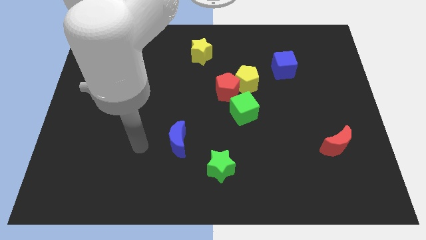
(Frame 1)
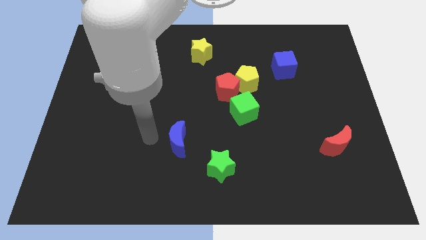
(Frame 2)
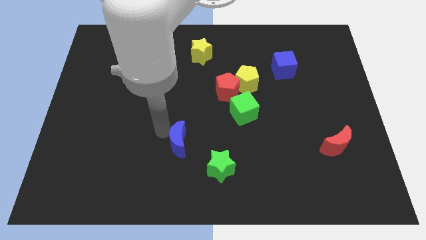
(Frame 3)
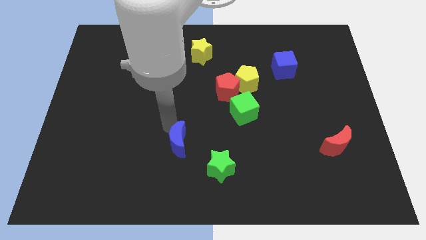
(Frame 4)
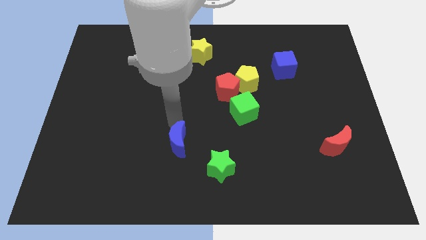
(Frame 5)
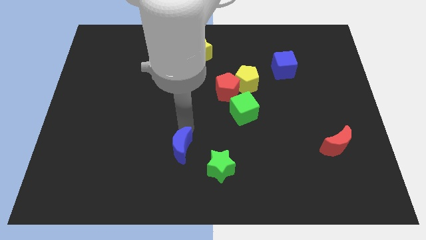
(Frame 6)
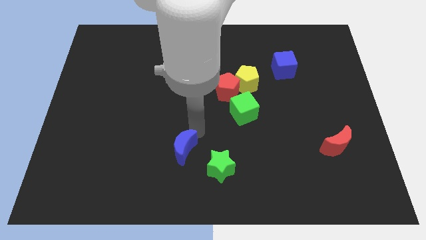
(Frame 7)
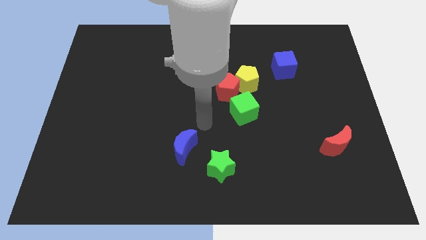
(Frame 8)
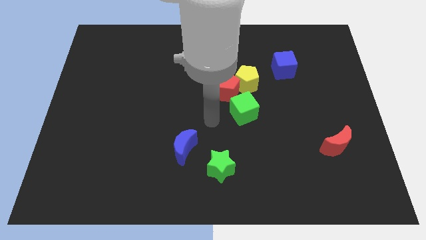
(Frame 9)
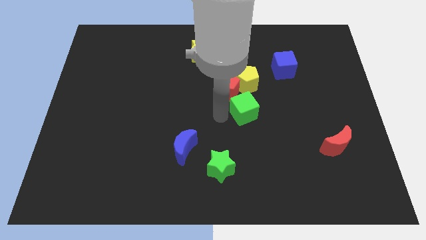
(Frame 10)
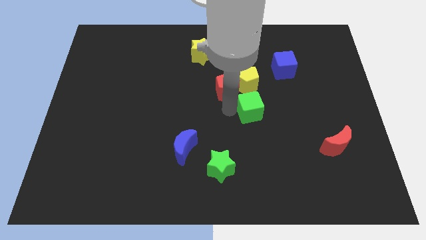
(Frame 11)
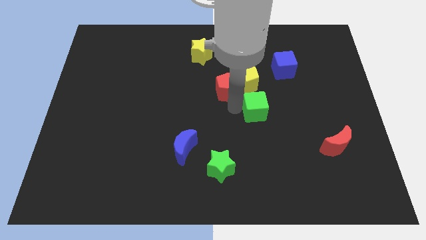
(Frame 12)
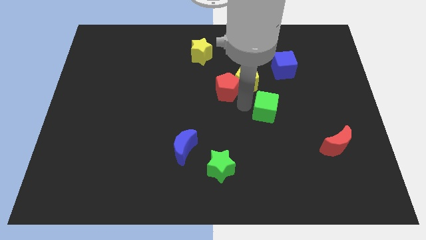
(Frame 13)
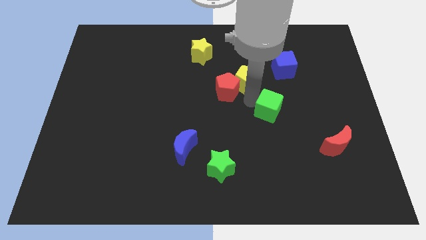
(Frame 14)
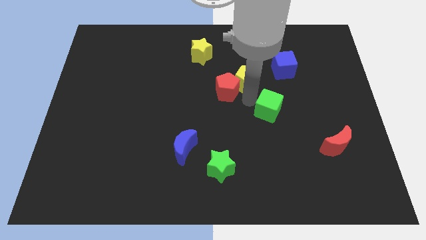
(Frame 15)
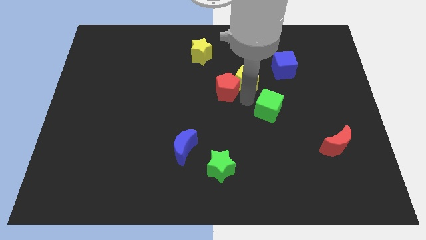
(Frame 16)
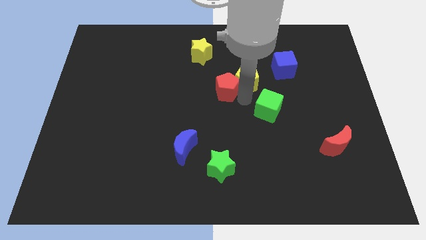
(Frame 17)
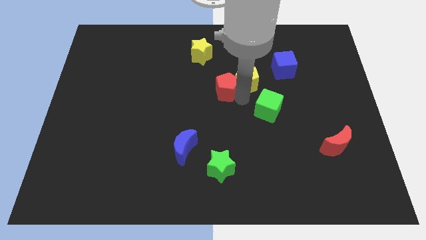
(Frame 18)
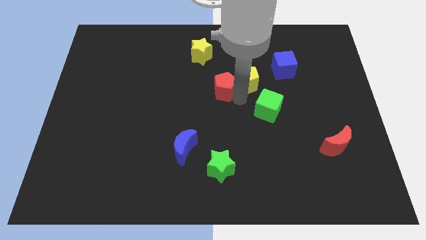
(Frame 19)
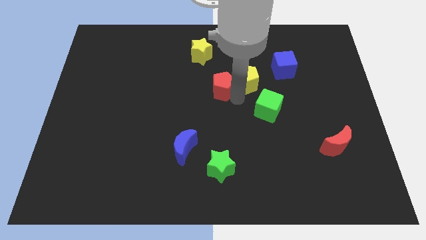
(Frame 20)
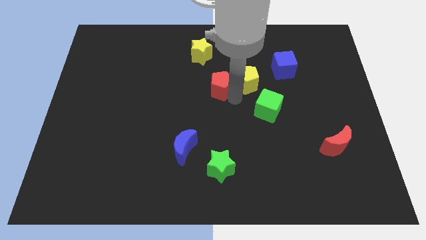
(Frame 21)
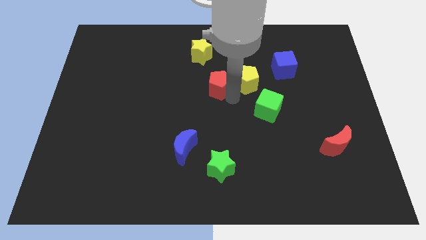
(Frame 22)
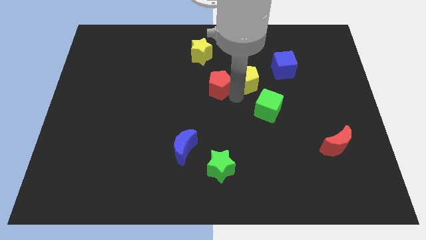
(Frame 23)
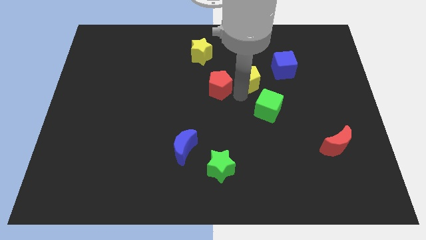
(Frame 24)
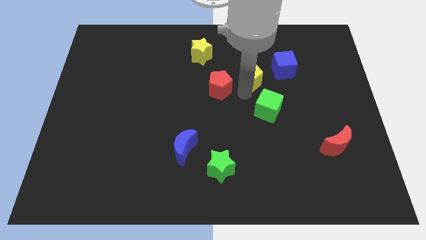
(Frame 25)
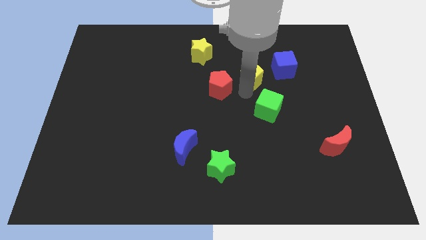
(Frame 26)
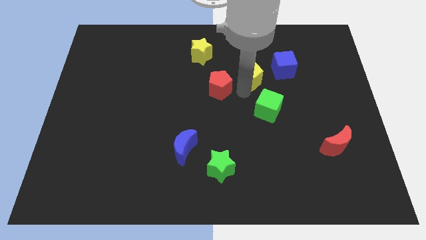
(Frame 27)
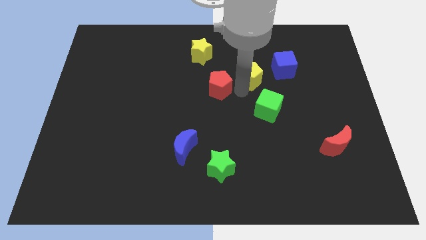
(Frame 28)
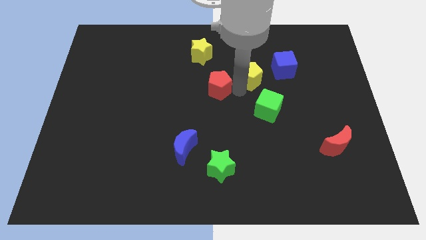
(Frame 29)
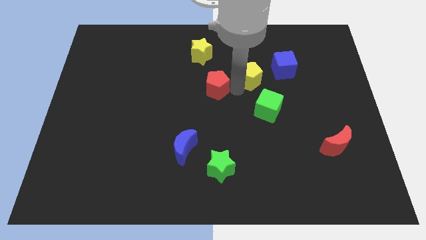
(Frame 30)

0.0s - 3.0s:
separate the red pentagon from the yellow pentagon and green cube

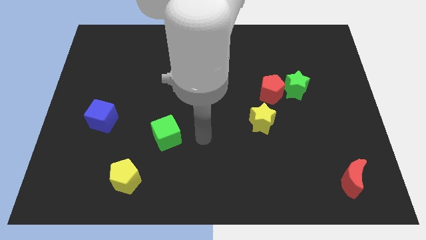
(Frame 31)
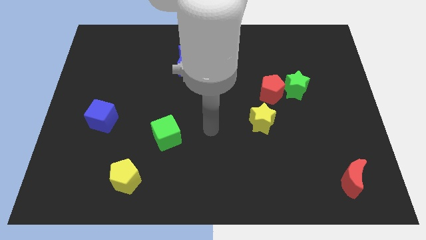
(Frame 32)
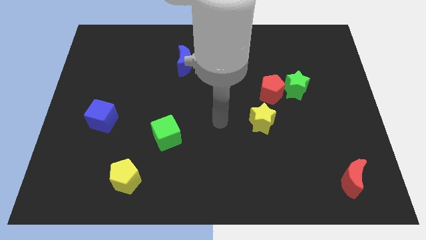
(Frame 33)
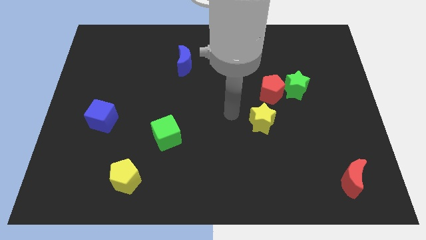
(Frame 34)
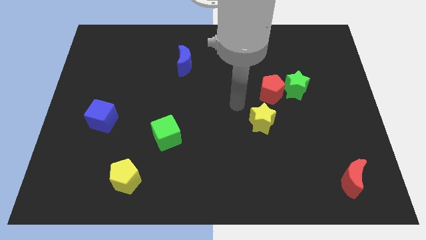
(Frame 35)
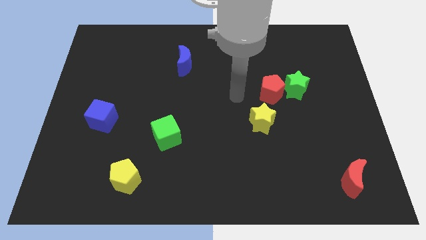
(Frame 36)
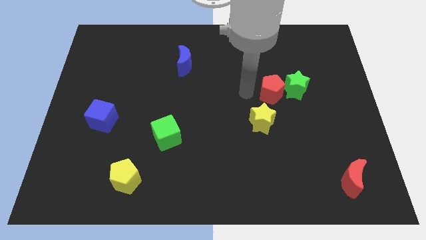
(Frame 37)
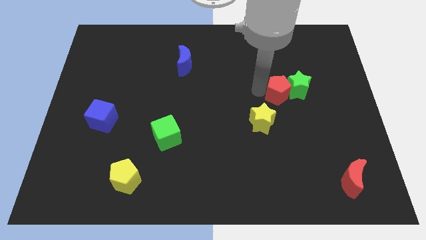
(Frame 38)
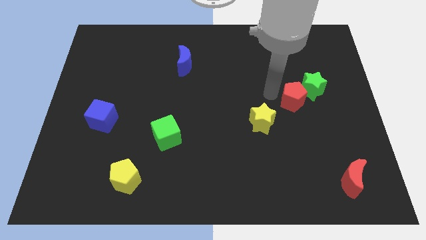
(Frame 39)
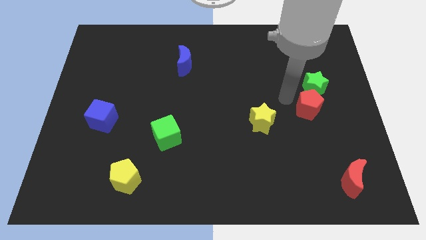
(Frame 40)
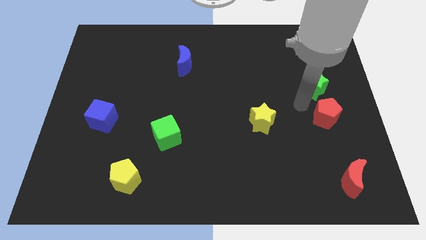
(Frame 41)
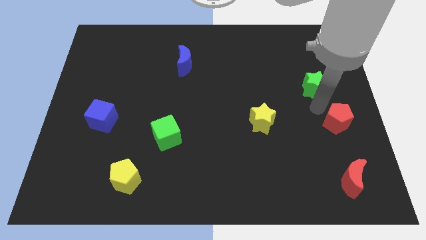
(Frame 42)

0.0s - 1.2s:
separate the green star from the red pentagon

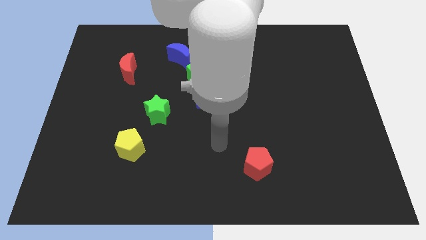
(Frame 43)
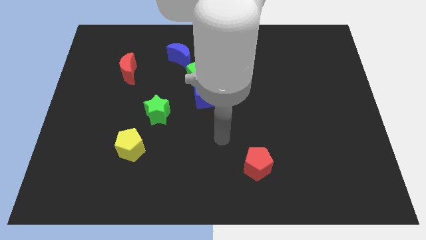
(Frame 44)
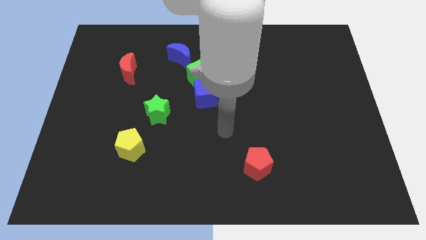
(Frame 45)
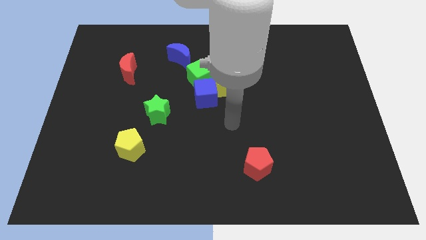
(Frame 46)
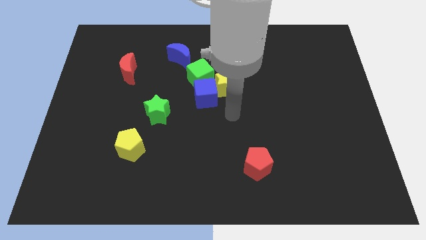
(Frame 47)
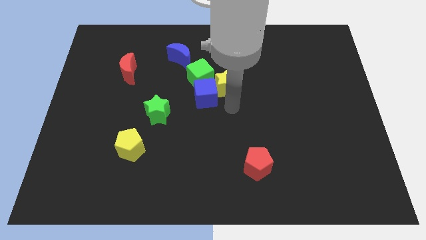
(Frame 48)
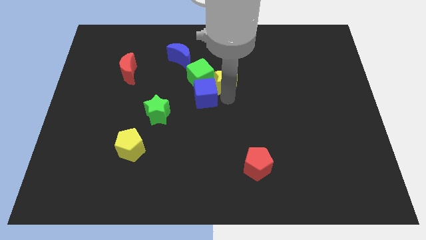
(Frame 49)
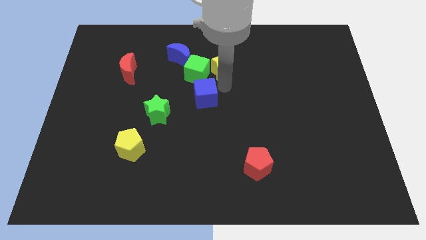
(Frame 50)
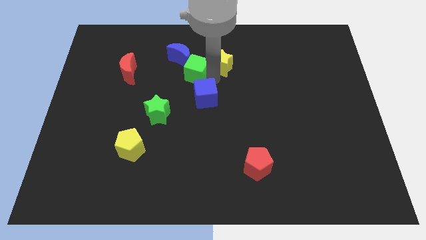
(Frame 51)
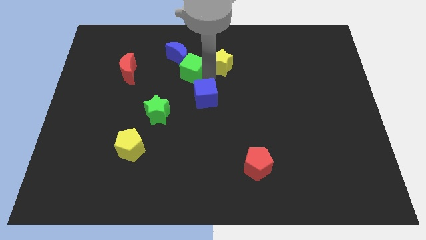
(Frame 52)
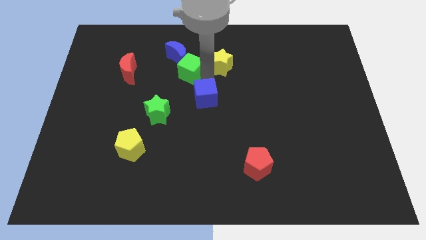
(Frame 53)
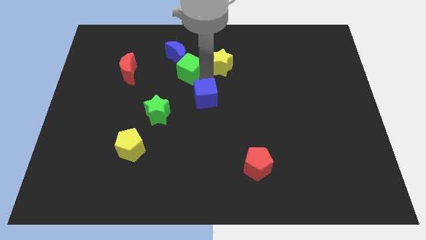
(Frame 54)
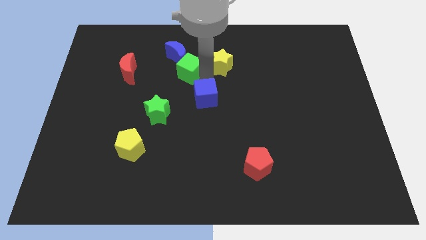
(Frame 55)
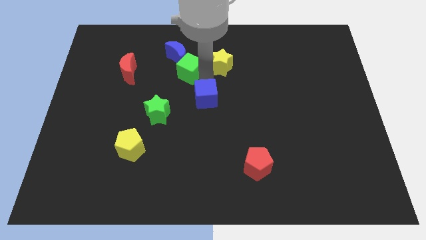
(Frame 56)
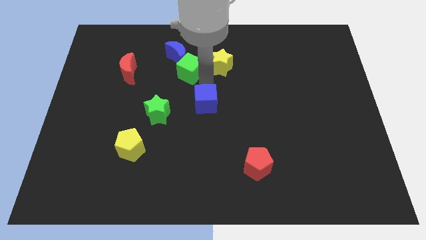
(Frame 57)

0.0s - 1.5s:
separate the blue cube from the yellow star and green cube

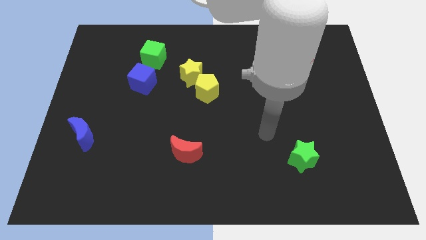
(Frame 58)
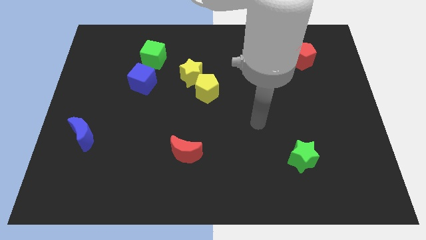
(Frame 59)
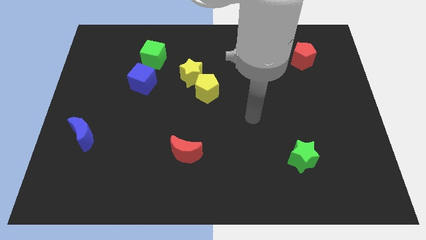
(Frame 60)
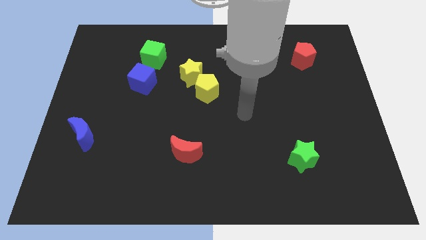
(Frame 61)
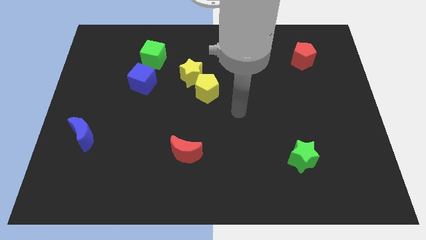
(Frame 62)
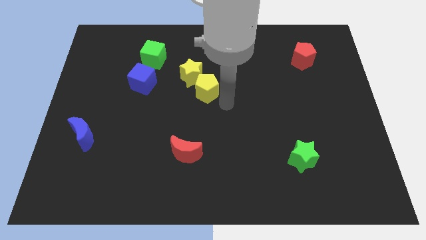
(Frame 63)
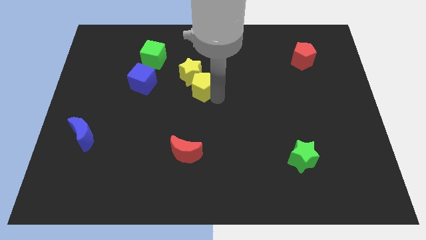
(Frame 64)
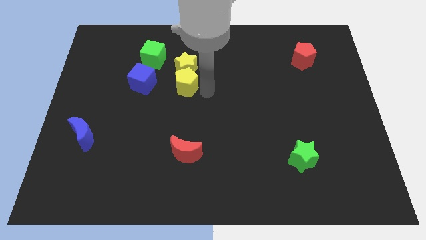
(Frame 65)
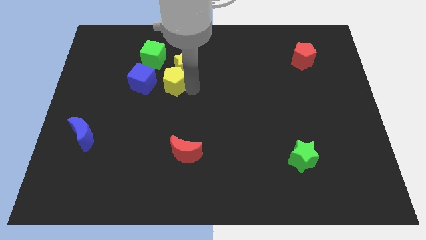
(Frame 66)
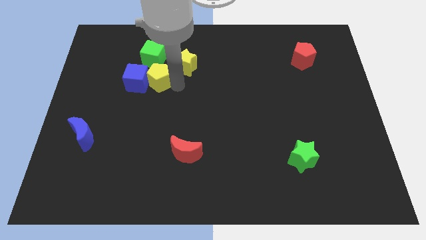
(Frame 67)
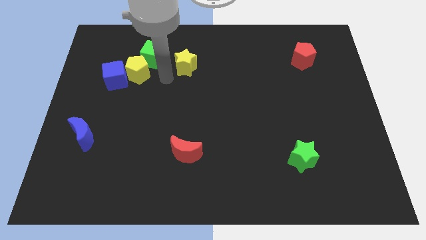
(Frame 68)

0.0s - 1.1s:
pull the yellow star apart from the yellow pentagon

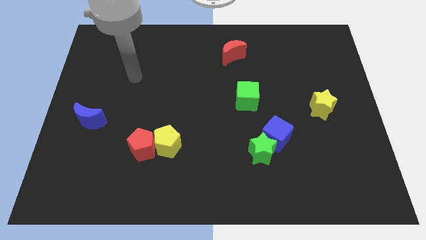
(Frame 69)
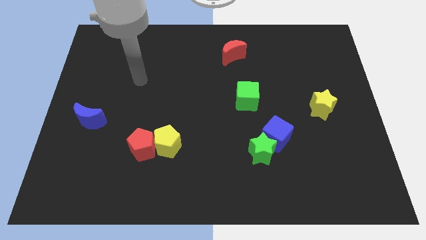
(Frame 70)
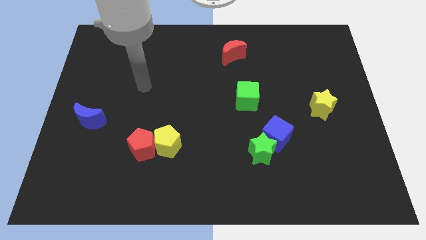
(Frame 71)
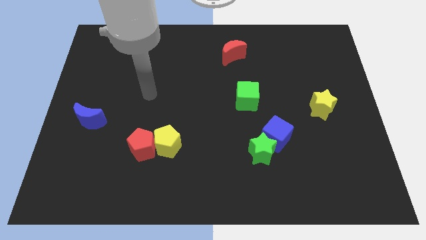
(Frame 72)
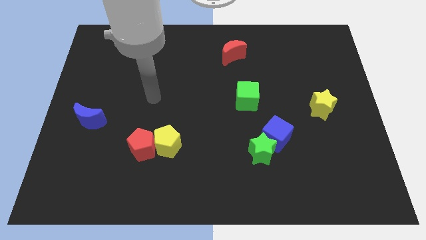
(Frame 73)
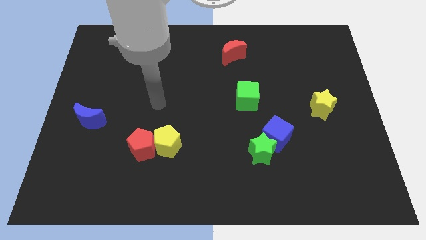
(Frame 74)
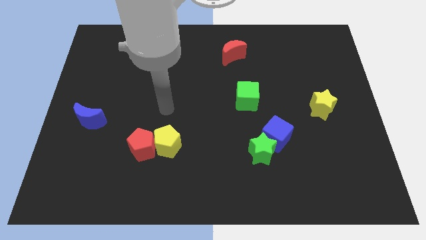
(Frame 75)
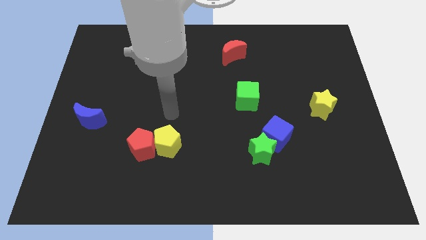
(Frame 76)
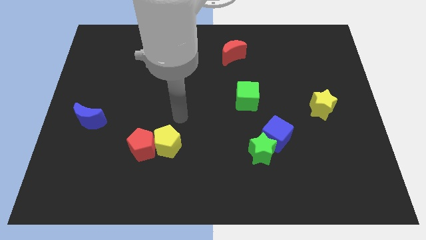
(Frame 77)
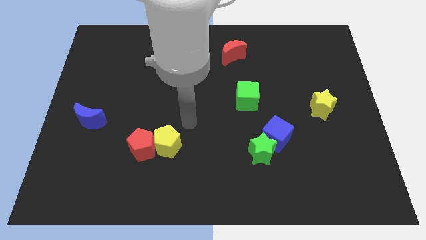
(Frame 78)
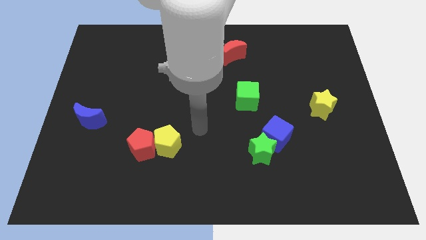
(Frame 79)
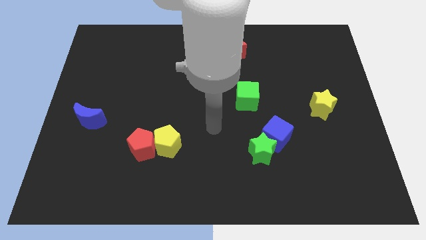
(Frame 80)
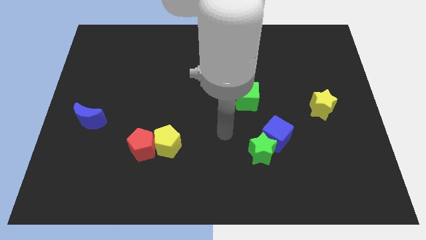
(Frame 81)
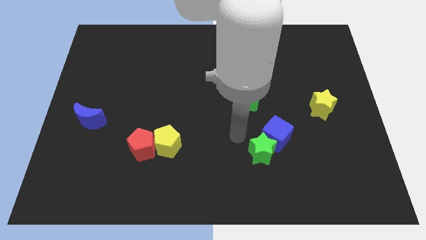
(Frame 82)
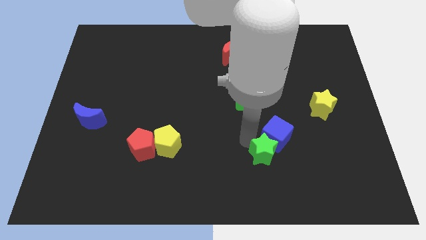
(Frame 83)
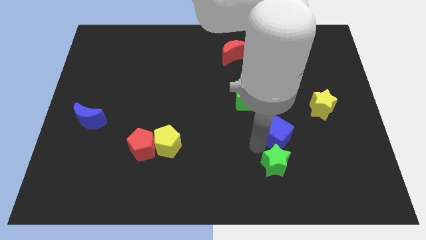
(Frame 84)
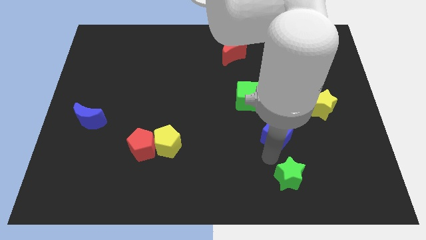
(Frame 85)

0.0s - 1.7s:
move the blue cube away from the green star

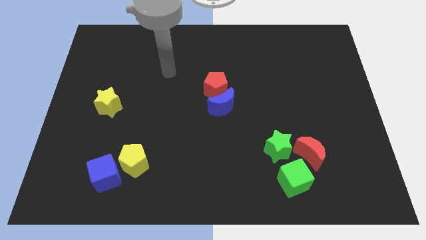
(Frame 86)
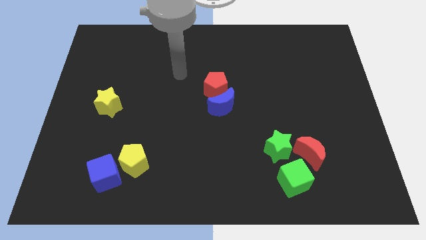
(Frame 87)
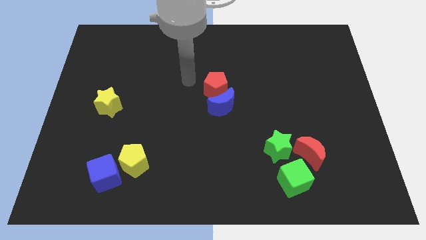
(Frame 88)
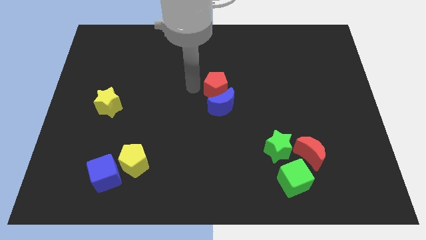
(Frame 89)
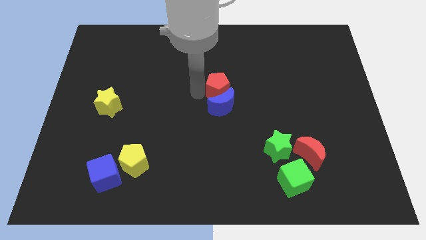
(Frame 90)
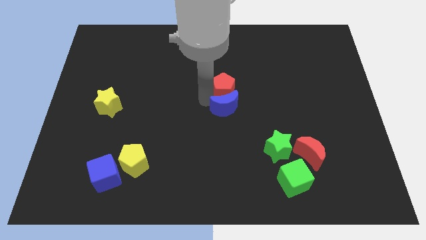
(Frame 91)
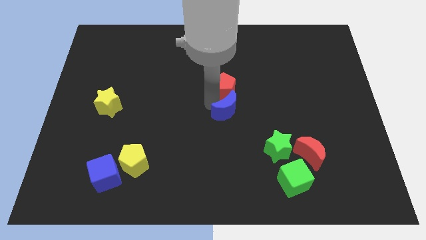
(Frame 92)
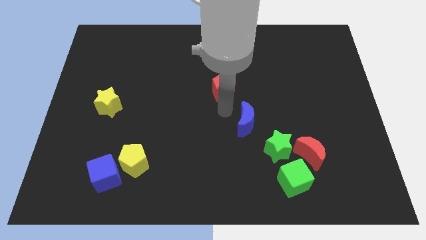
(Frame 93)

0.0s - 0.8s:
pull the red pentagon apart from the blue moon
